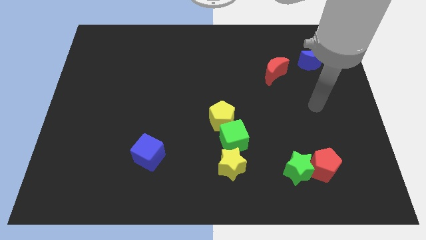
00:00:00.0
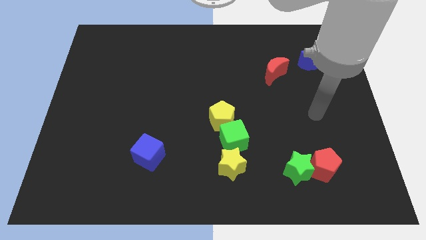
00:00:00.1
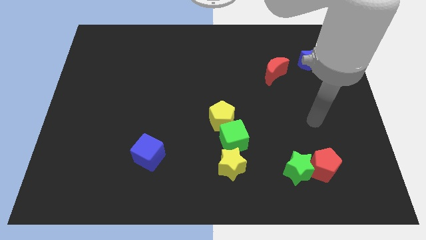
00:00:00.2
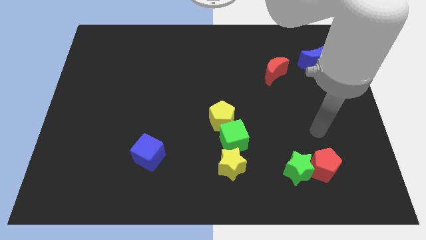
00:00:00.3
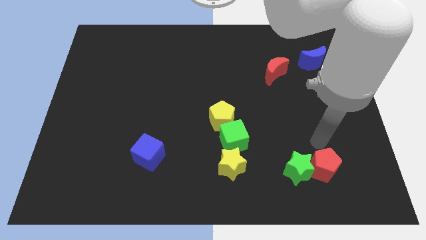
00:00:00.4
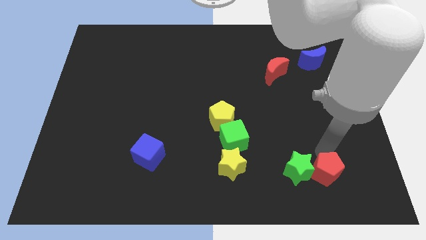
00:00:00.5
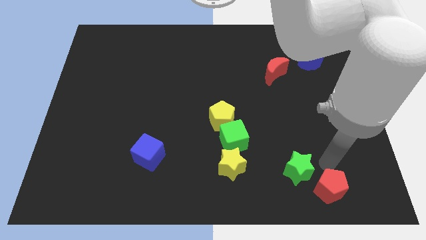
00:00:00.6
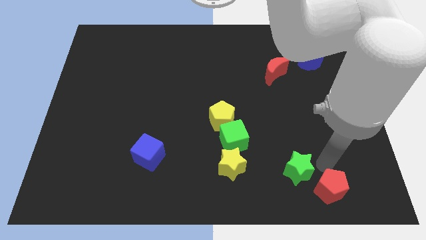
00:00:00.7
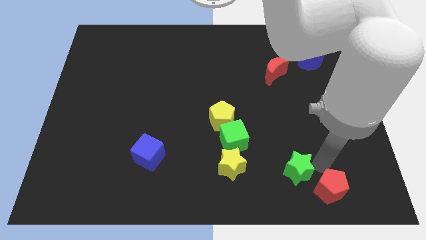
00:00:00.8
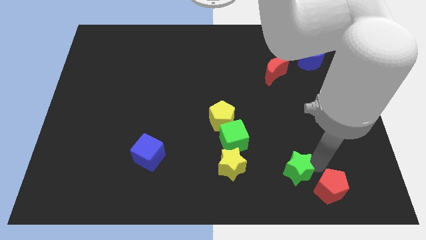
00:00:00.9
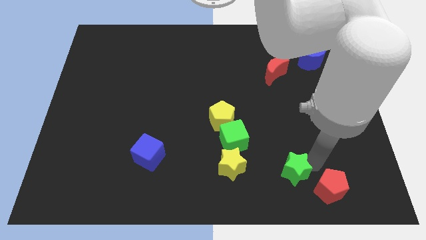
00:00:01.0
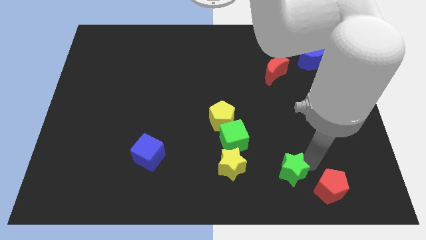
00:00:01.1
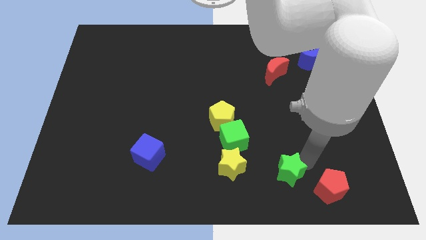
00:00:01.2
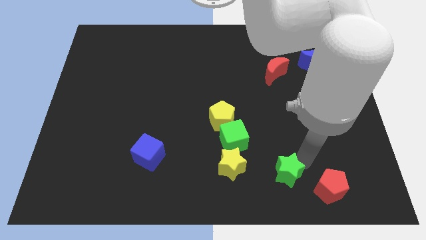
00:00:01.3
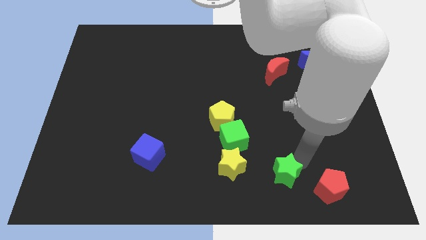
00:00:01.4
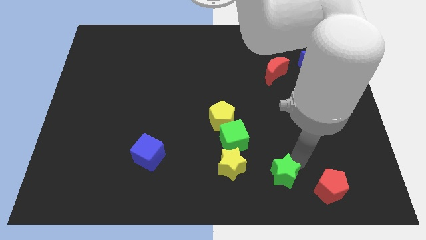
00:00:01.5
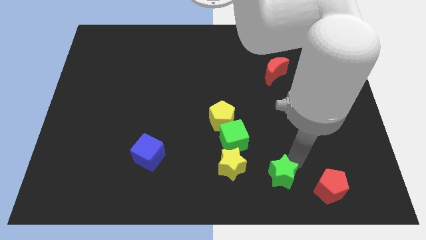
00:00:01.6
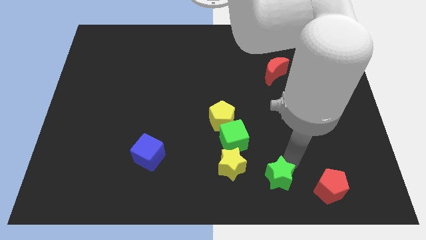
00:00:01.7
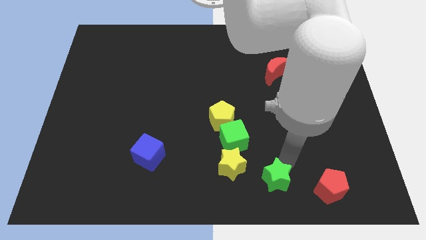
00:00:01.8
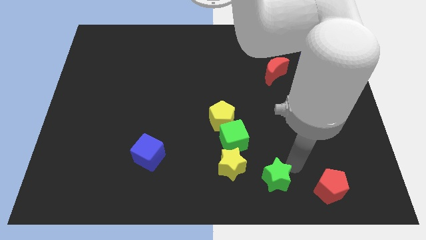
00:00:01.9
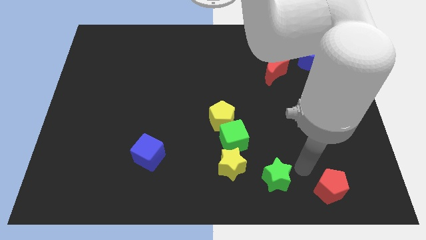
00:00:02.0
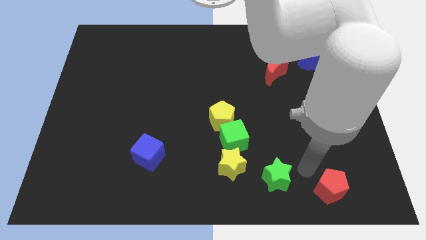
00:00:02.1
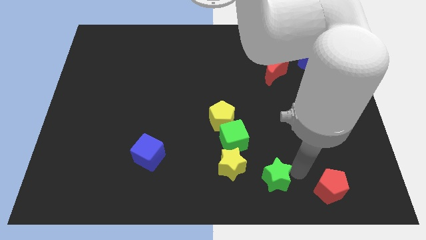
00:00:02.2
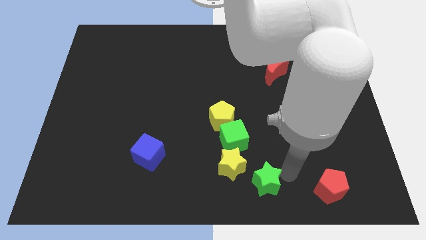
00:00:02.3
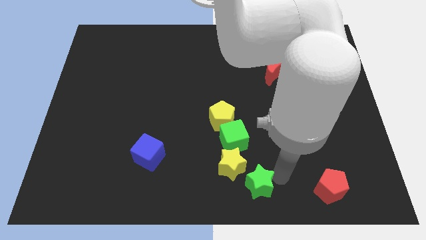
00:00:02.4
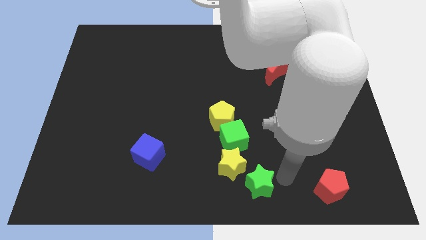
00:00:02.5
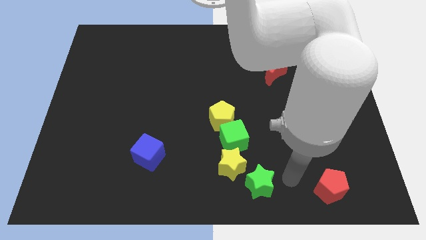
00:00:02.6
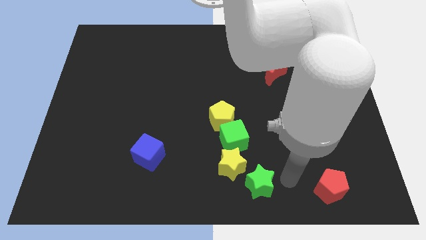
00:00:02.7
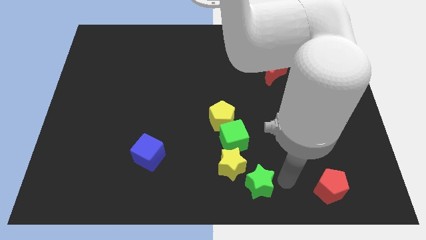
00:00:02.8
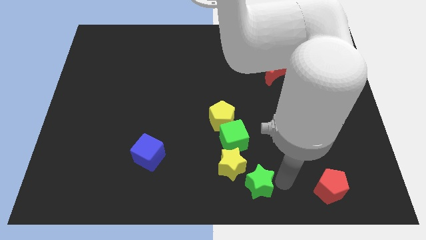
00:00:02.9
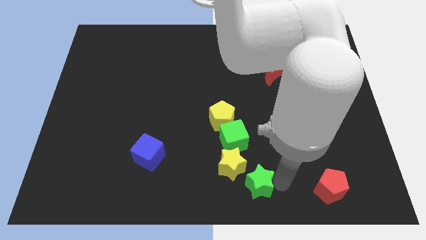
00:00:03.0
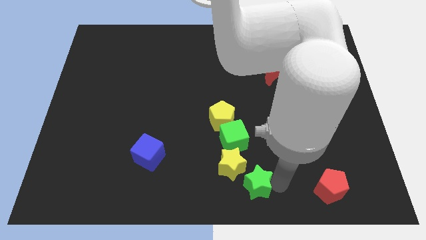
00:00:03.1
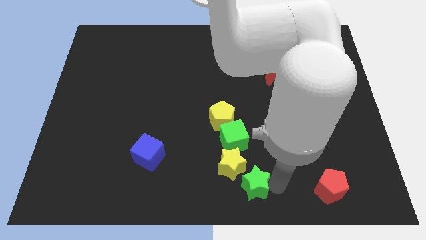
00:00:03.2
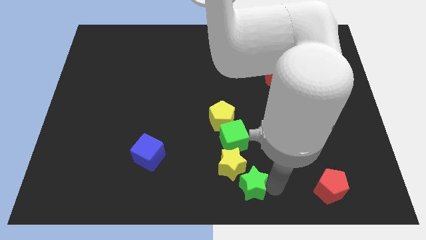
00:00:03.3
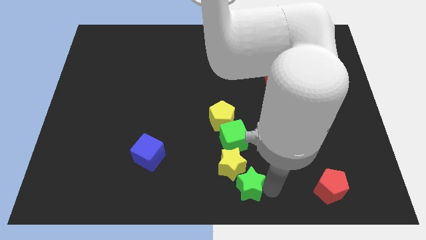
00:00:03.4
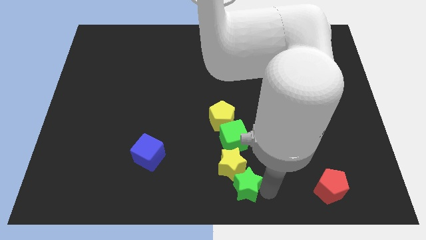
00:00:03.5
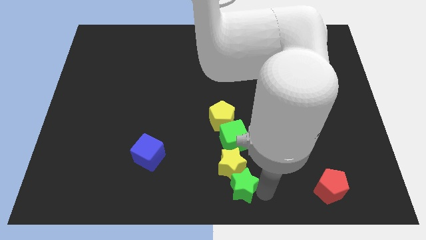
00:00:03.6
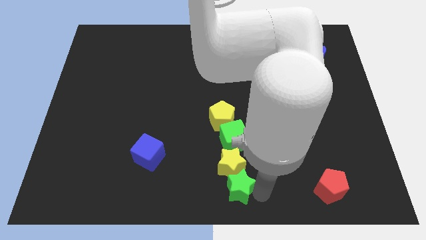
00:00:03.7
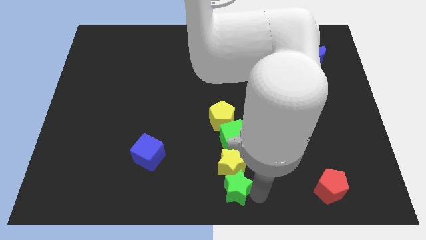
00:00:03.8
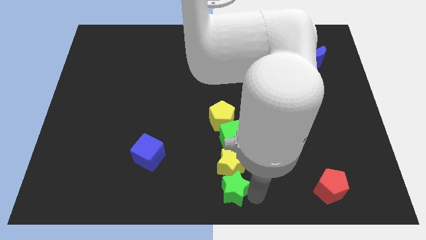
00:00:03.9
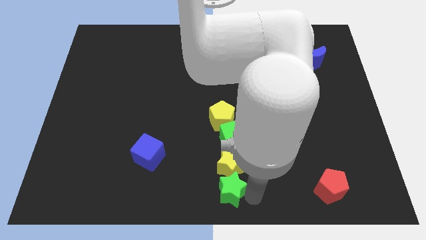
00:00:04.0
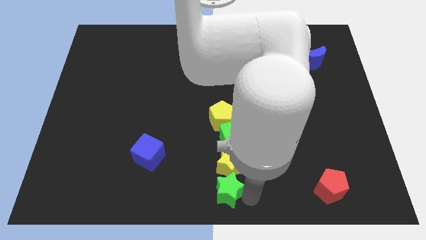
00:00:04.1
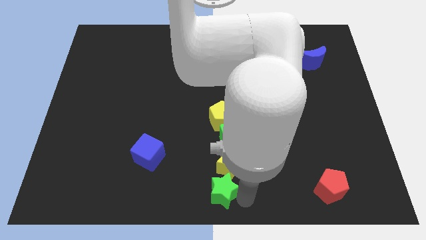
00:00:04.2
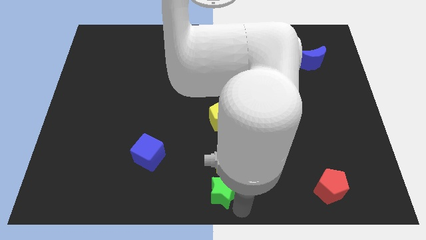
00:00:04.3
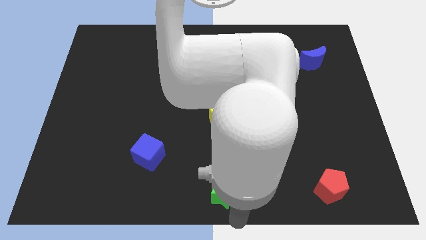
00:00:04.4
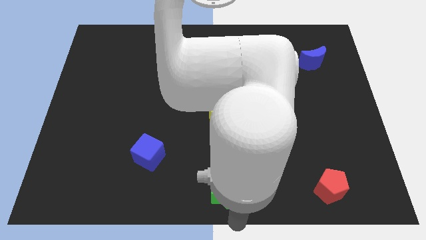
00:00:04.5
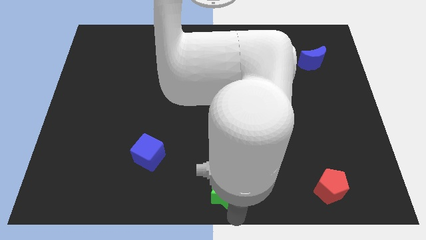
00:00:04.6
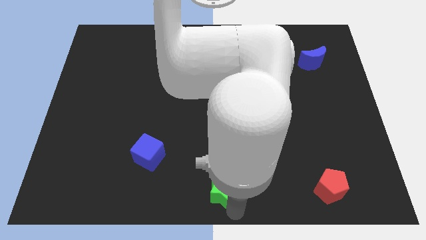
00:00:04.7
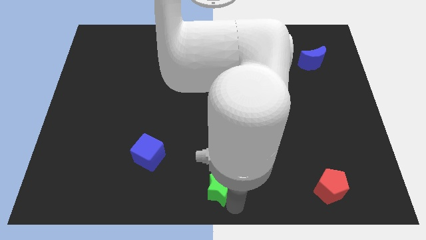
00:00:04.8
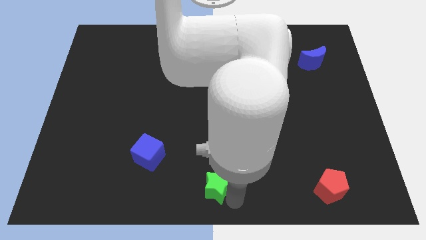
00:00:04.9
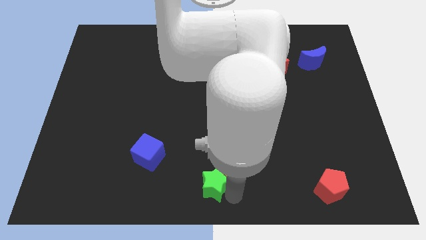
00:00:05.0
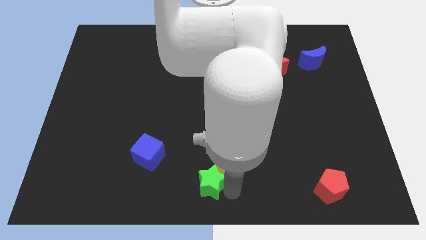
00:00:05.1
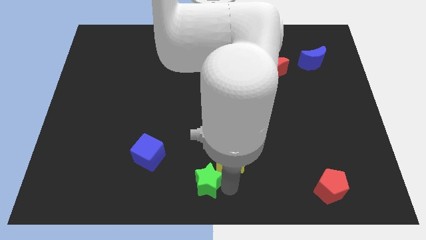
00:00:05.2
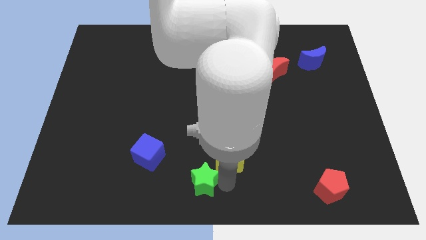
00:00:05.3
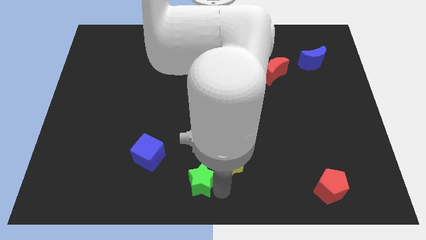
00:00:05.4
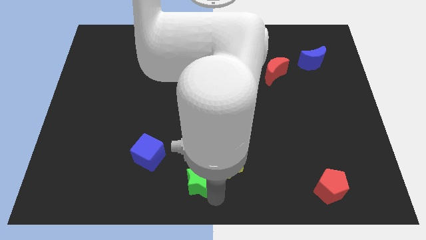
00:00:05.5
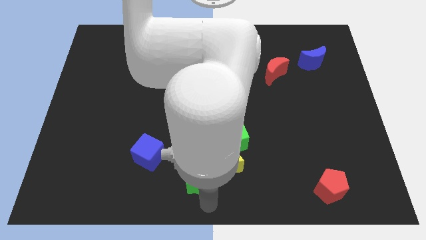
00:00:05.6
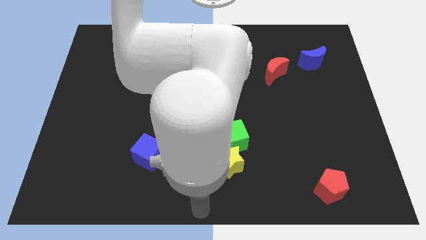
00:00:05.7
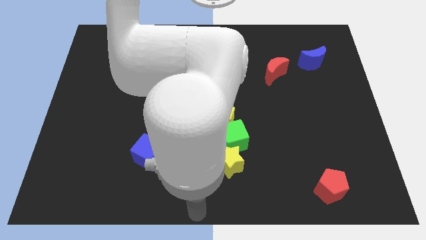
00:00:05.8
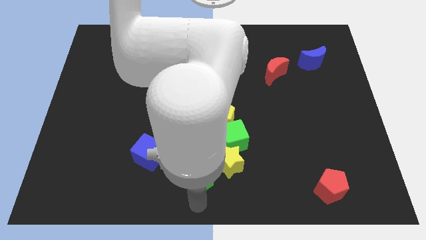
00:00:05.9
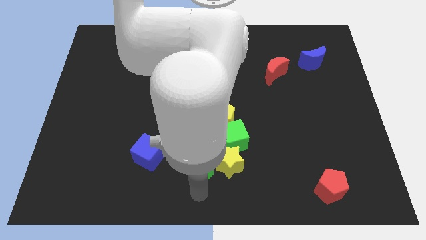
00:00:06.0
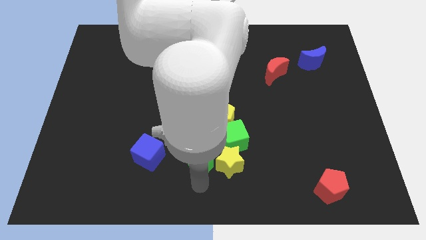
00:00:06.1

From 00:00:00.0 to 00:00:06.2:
slide the green star diagonally up and to the left of the yellow star

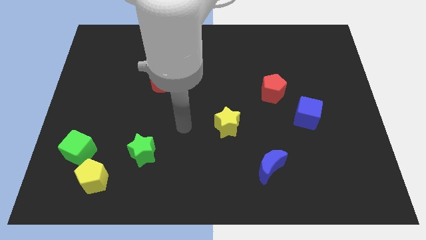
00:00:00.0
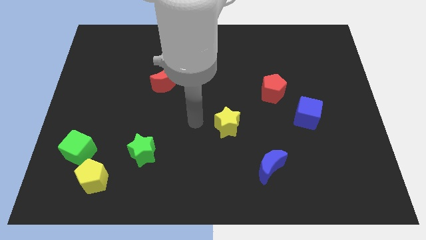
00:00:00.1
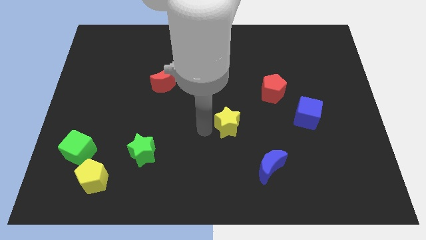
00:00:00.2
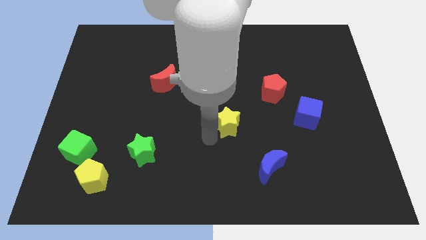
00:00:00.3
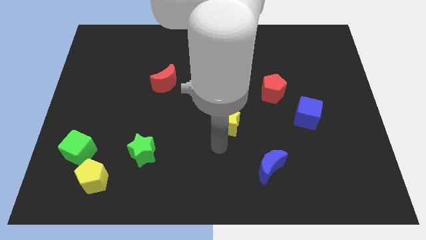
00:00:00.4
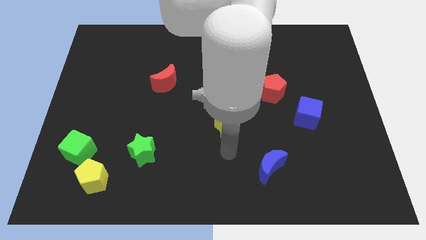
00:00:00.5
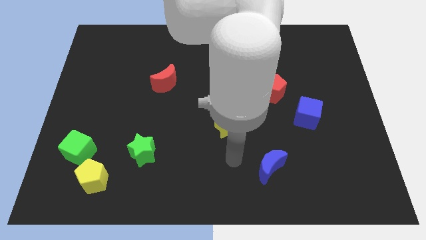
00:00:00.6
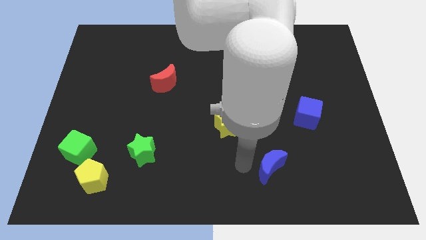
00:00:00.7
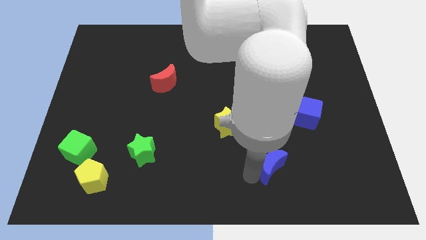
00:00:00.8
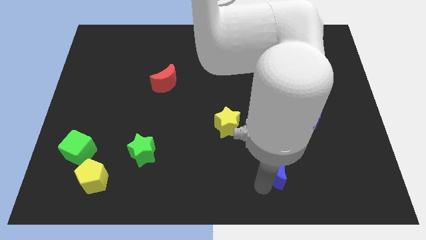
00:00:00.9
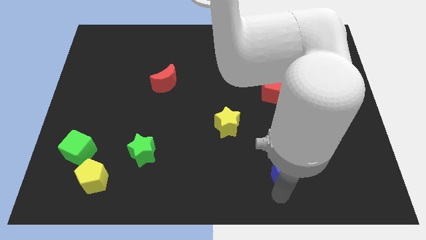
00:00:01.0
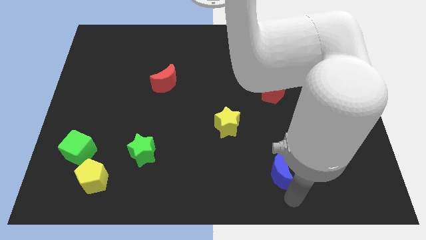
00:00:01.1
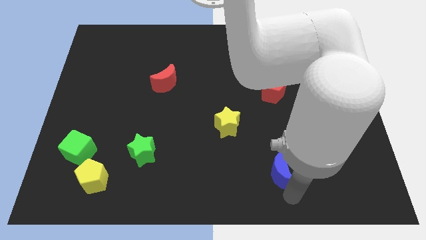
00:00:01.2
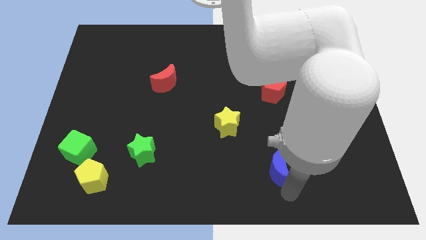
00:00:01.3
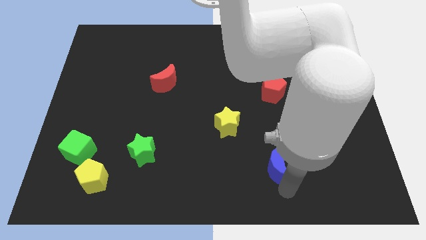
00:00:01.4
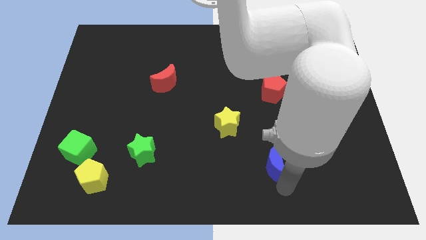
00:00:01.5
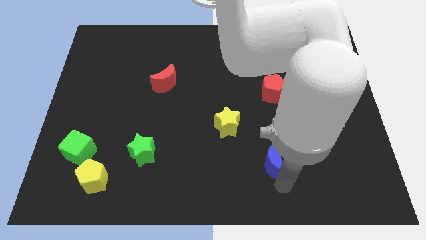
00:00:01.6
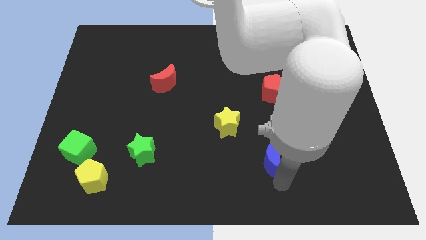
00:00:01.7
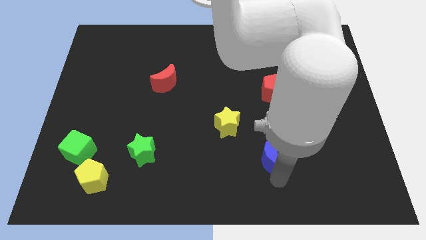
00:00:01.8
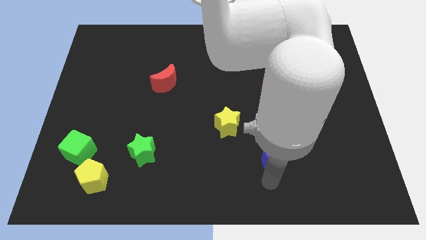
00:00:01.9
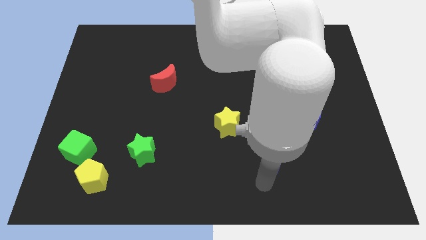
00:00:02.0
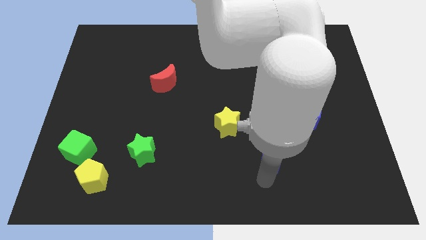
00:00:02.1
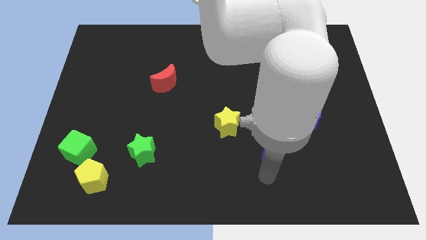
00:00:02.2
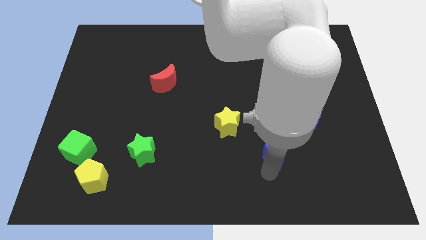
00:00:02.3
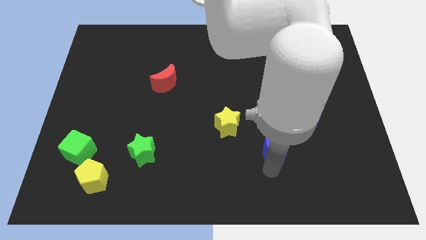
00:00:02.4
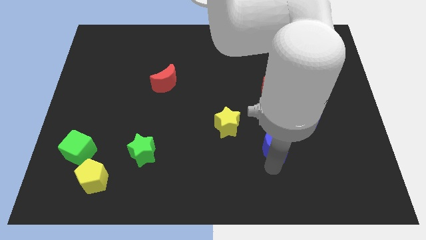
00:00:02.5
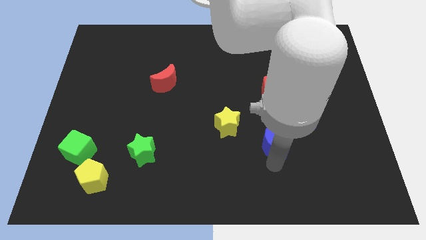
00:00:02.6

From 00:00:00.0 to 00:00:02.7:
push the blue moon to the bottom side of the red pentagon
